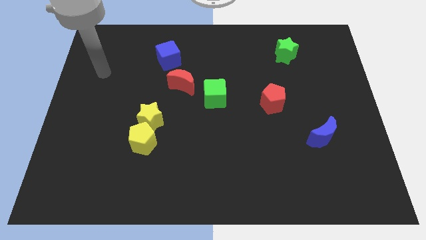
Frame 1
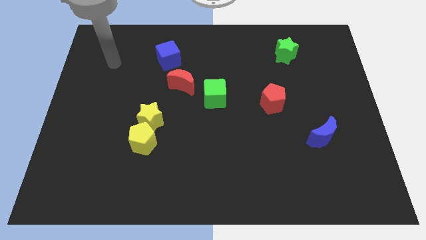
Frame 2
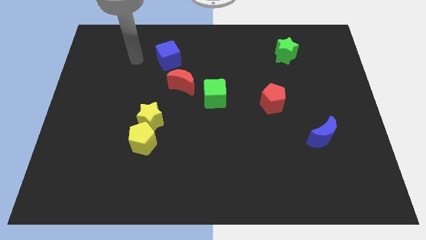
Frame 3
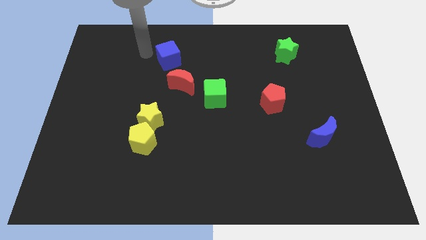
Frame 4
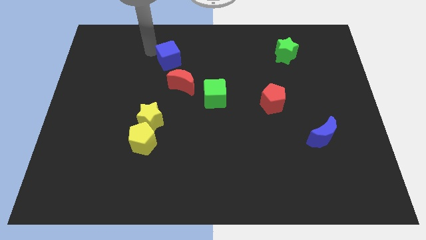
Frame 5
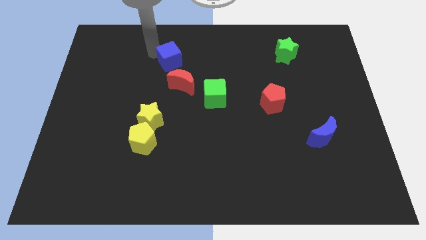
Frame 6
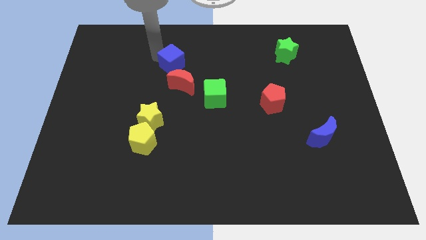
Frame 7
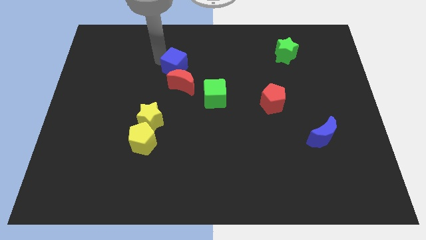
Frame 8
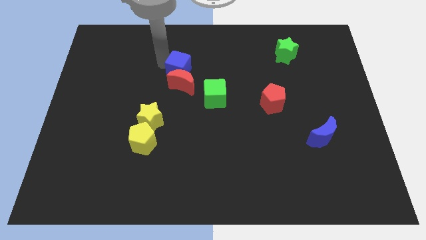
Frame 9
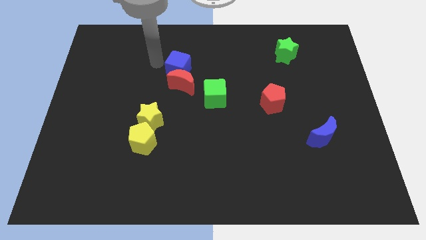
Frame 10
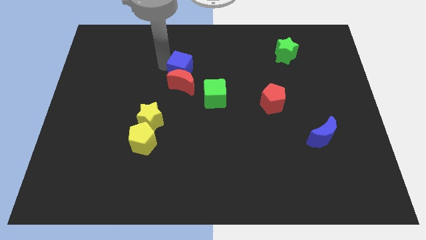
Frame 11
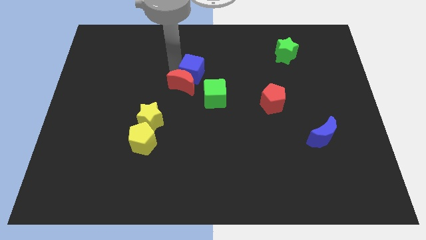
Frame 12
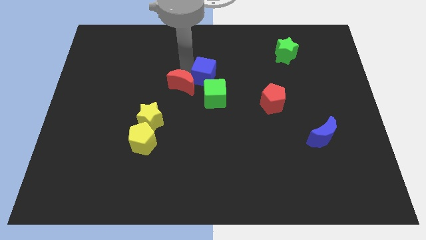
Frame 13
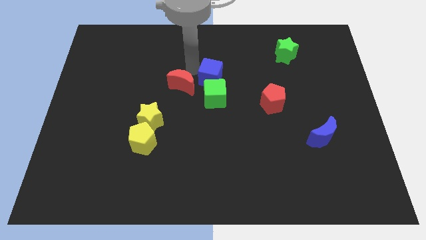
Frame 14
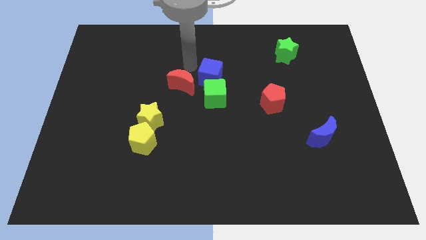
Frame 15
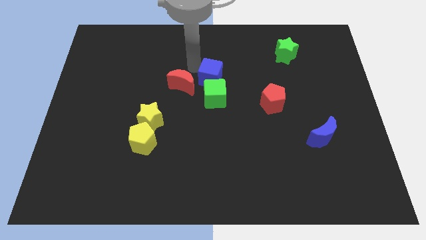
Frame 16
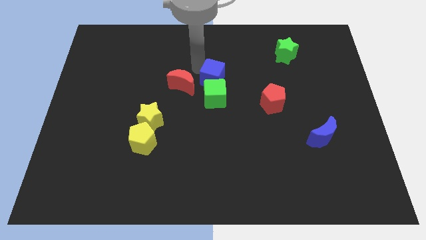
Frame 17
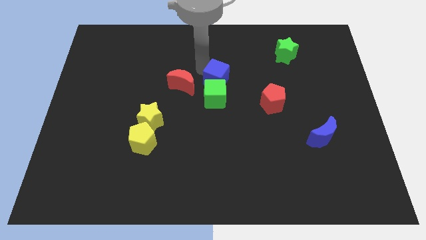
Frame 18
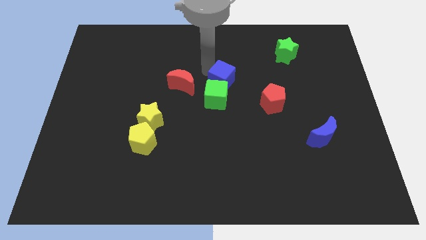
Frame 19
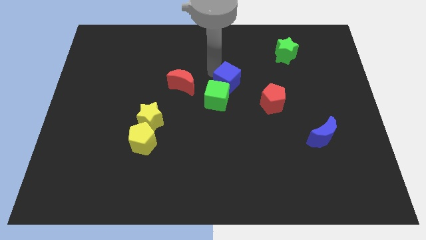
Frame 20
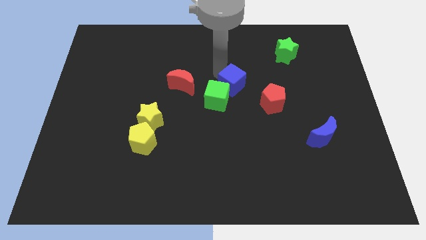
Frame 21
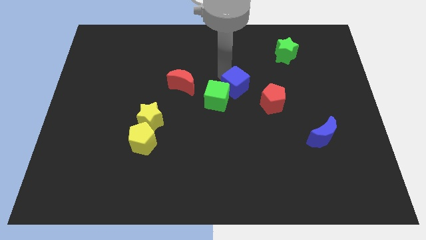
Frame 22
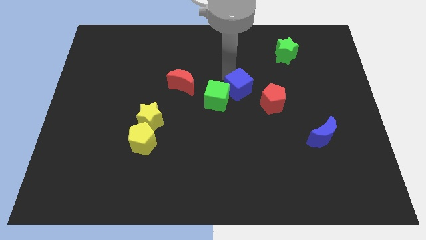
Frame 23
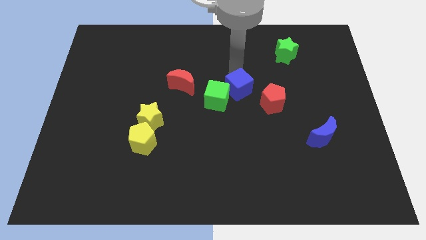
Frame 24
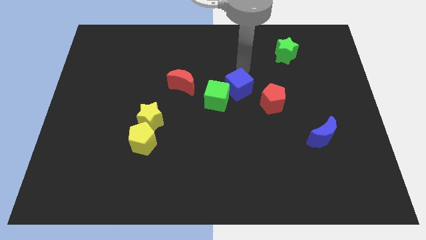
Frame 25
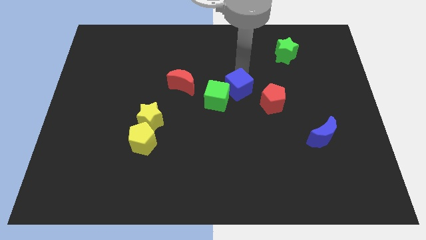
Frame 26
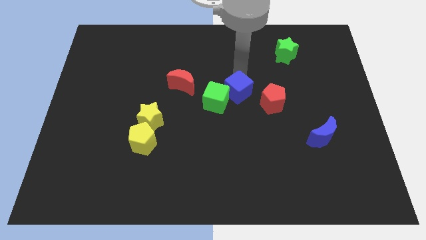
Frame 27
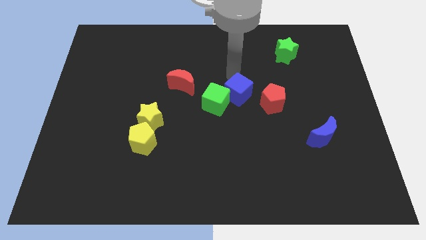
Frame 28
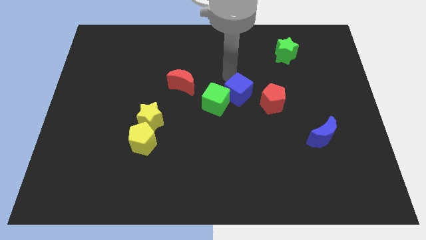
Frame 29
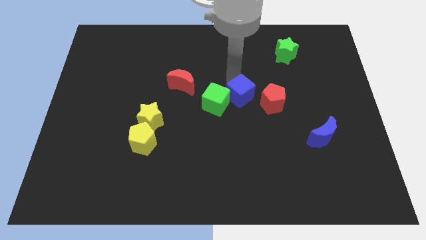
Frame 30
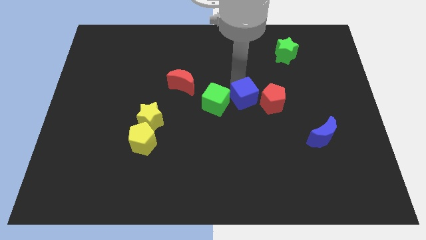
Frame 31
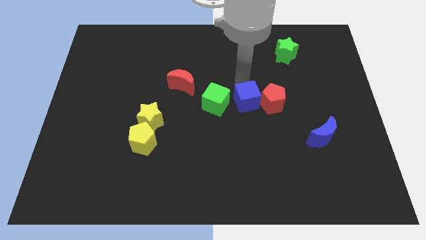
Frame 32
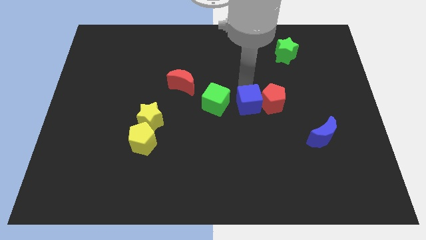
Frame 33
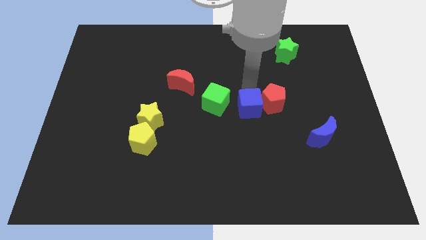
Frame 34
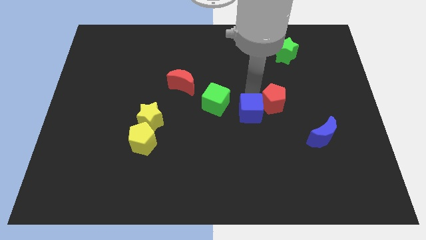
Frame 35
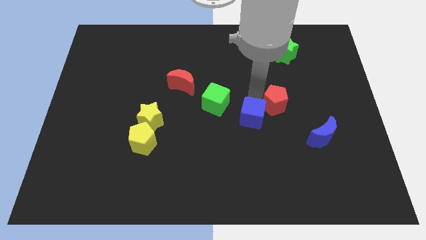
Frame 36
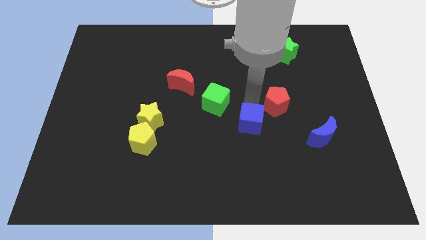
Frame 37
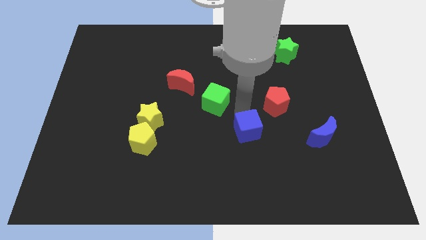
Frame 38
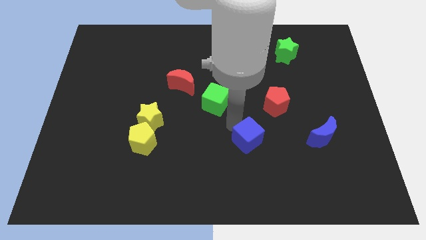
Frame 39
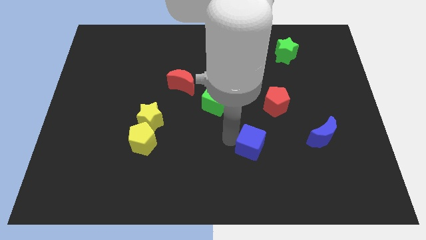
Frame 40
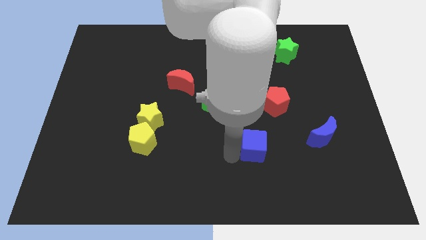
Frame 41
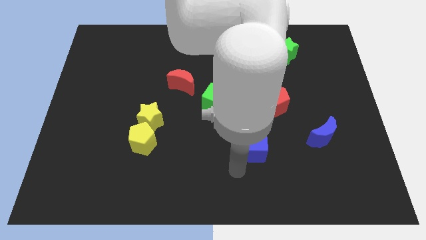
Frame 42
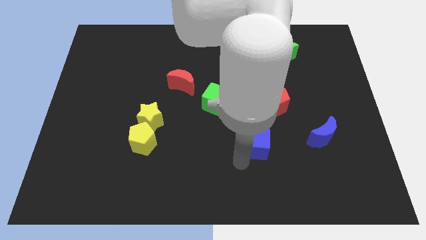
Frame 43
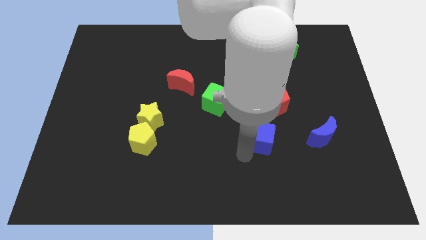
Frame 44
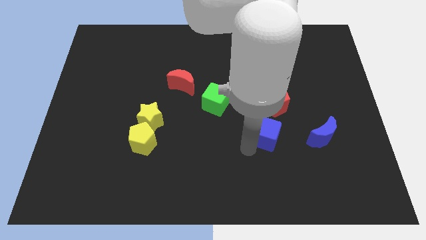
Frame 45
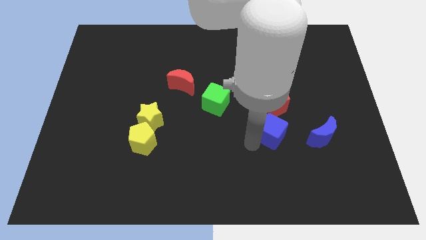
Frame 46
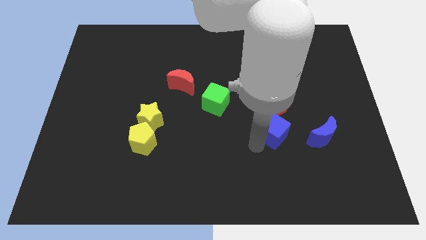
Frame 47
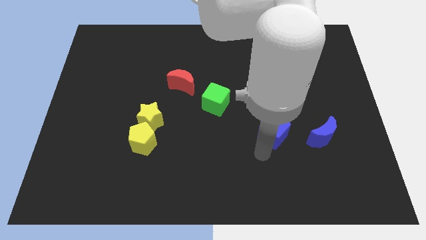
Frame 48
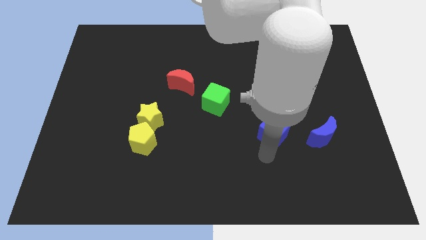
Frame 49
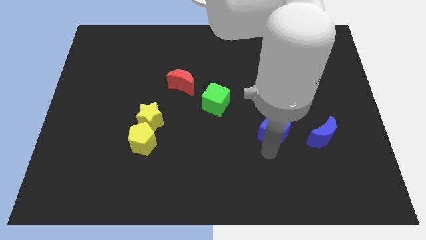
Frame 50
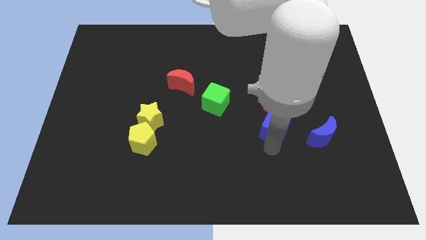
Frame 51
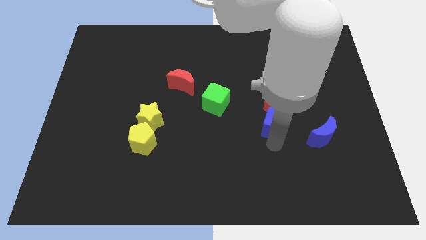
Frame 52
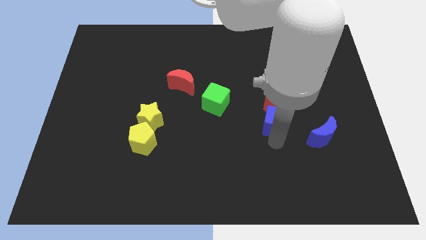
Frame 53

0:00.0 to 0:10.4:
move the blue cube to the bottom right of the red pentagon

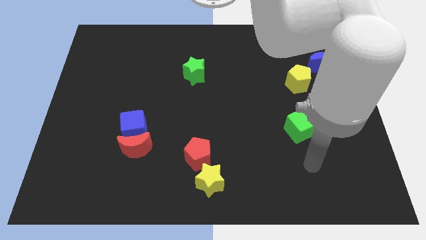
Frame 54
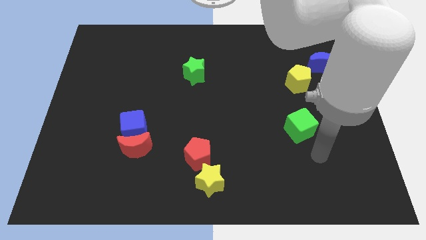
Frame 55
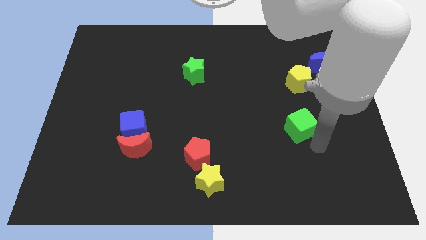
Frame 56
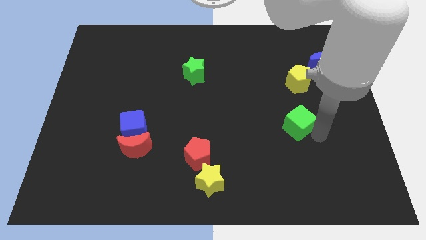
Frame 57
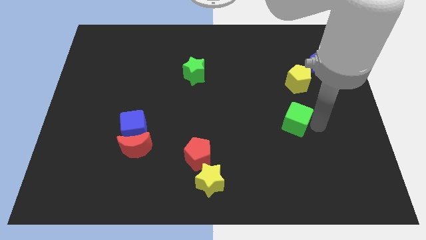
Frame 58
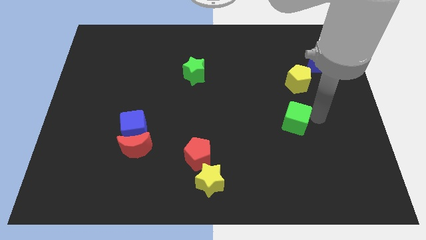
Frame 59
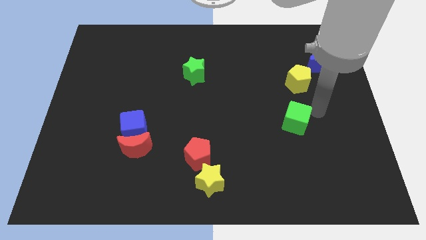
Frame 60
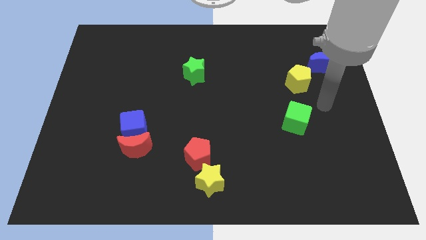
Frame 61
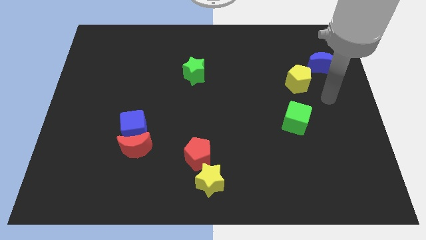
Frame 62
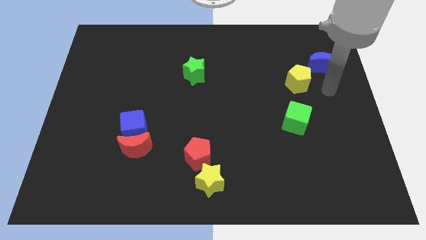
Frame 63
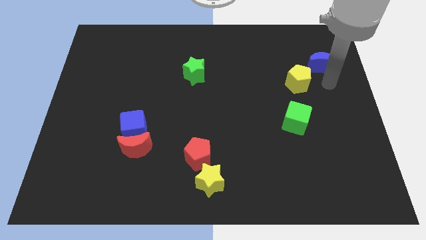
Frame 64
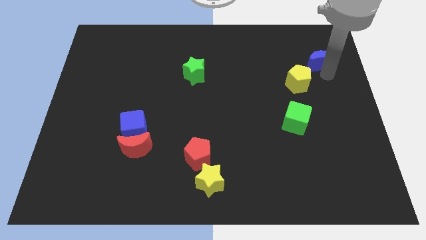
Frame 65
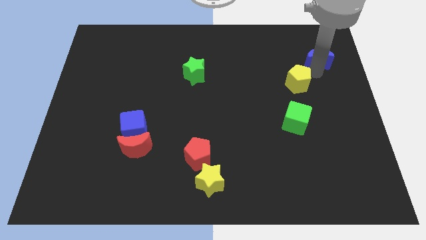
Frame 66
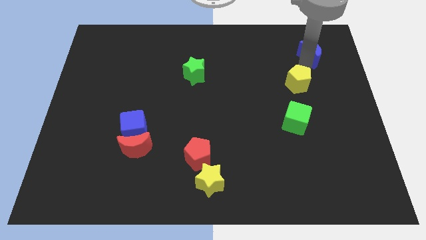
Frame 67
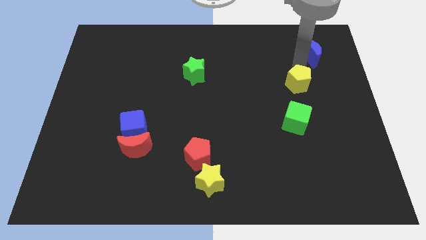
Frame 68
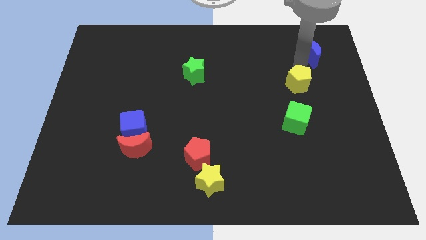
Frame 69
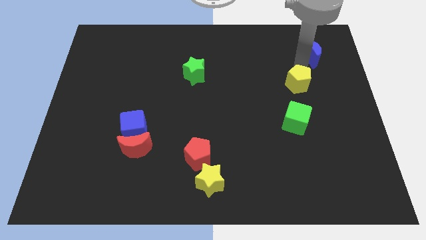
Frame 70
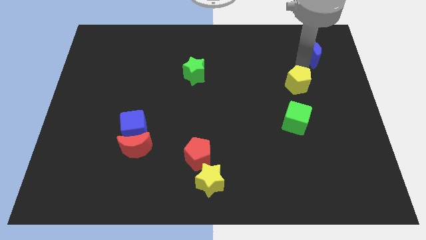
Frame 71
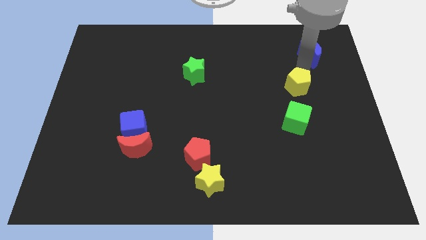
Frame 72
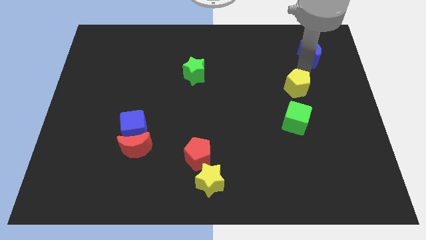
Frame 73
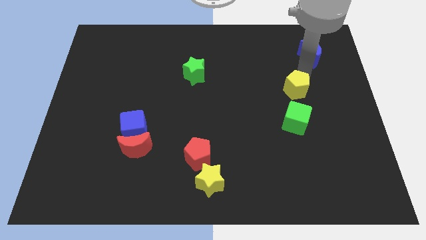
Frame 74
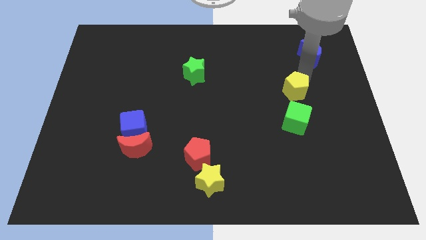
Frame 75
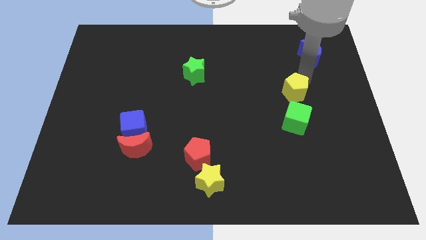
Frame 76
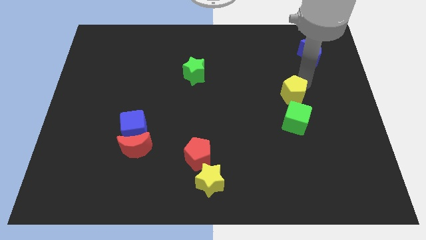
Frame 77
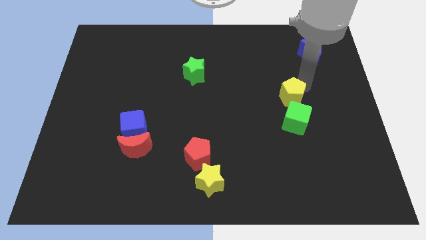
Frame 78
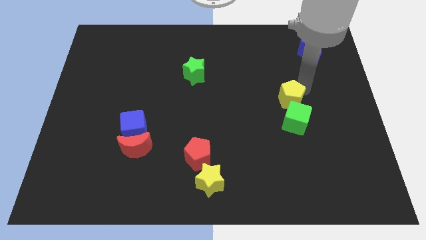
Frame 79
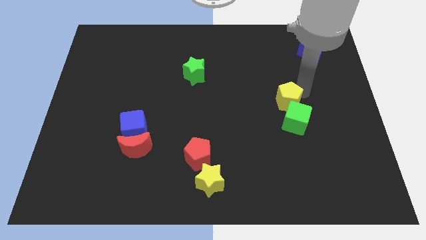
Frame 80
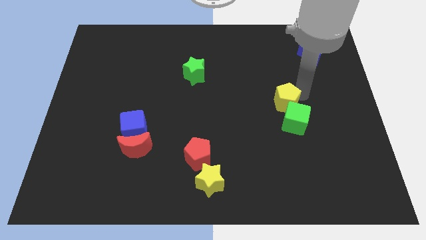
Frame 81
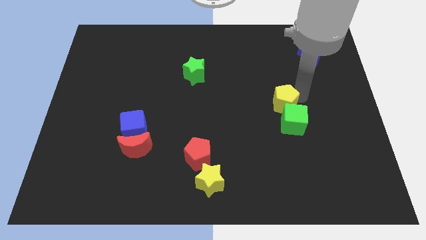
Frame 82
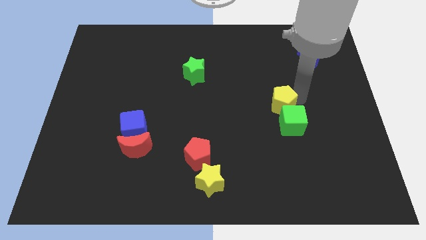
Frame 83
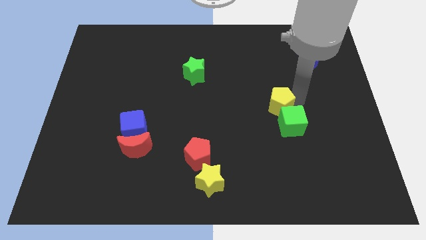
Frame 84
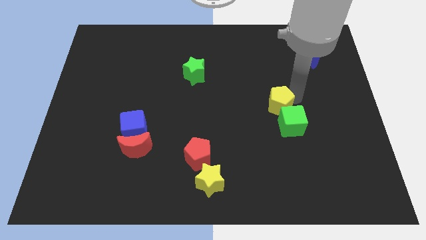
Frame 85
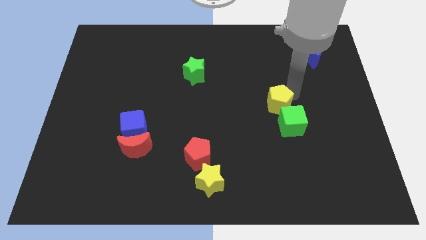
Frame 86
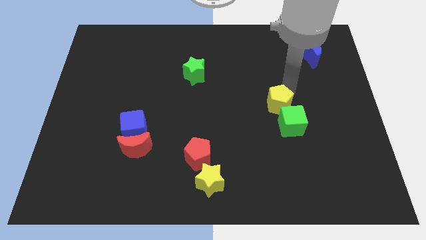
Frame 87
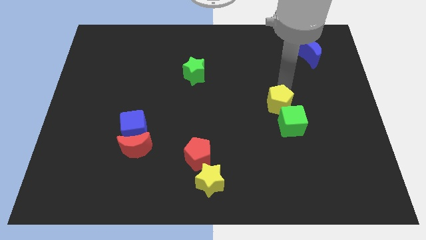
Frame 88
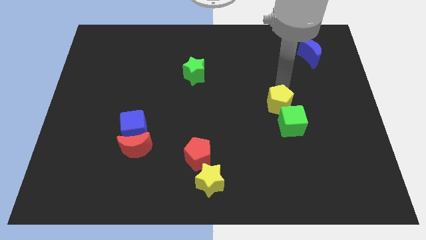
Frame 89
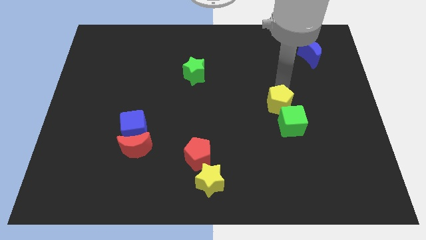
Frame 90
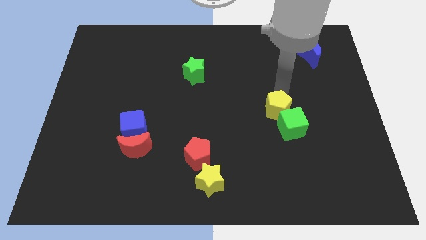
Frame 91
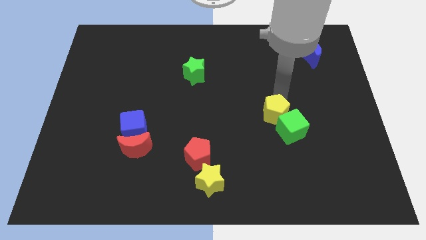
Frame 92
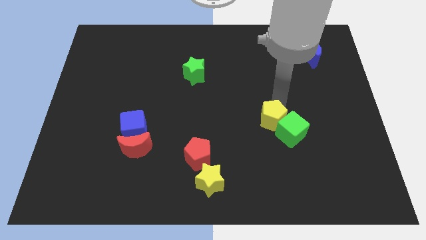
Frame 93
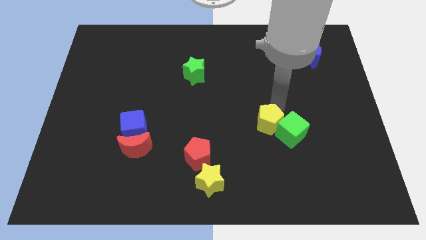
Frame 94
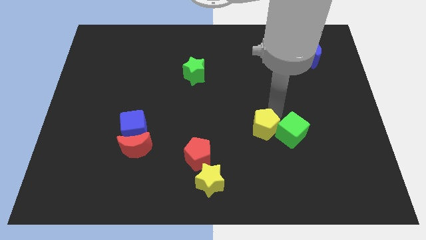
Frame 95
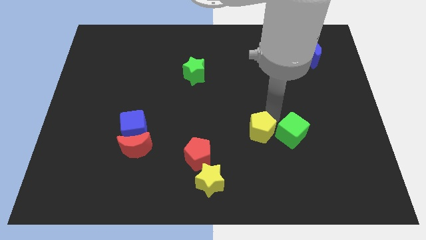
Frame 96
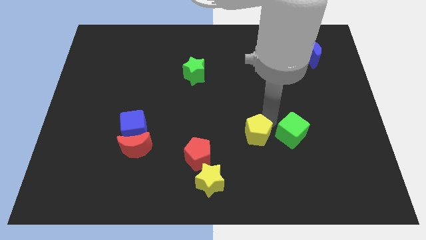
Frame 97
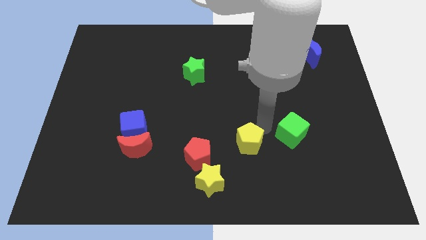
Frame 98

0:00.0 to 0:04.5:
push the yellow pentagon diagonally up and to the right of the yellow star
